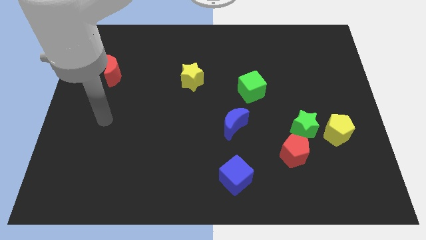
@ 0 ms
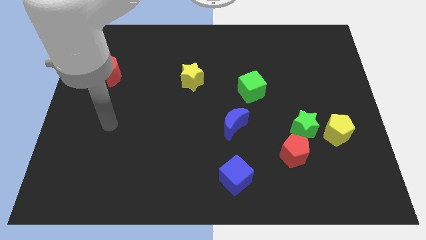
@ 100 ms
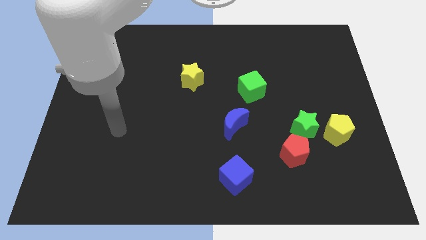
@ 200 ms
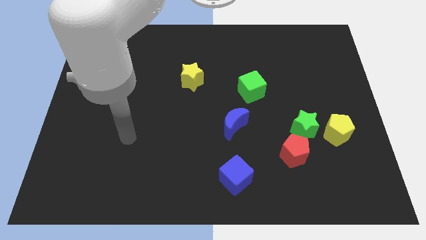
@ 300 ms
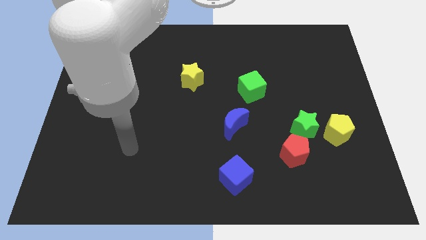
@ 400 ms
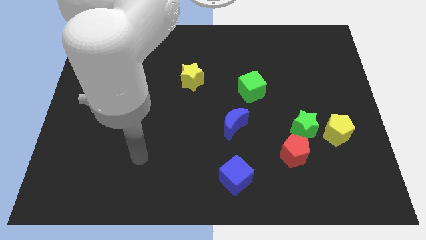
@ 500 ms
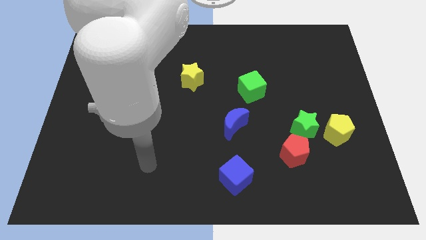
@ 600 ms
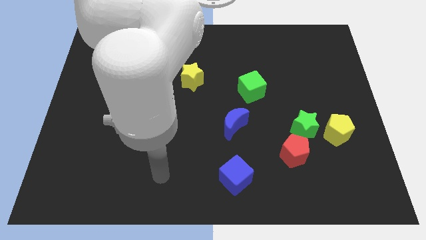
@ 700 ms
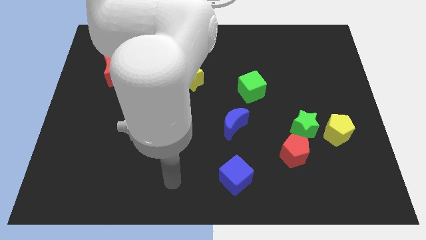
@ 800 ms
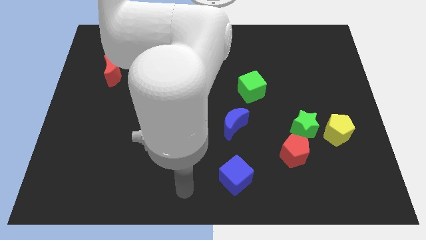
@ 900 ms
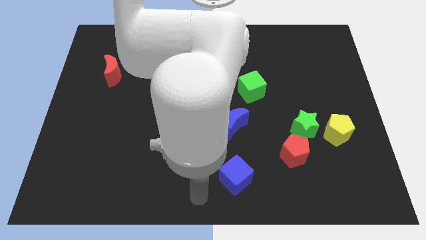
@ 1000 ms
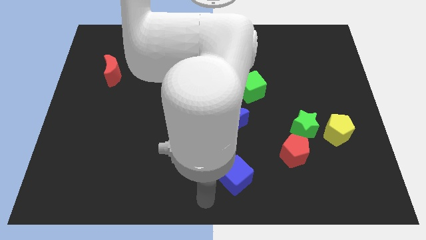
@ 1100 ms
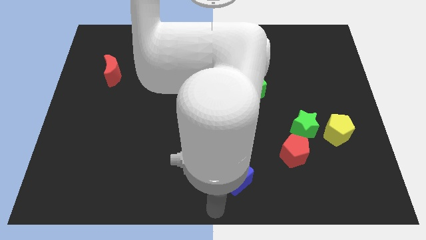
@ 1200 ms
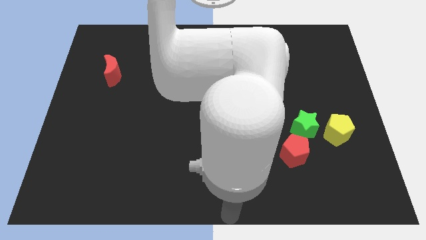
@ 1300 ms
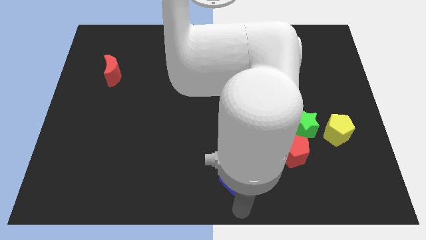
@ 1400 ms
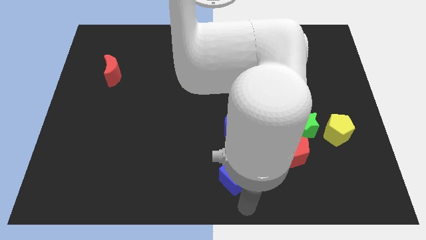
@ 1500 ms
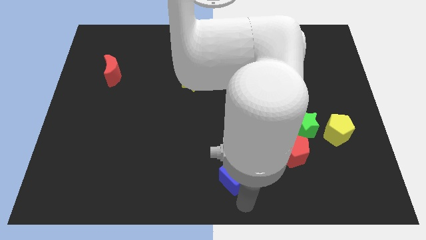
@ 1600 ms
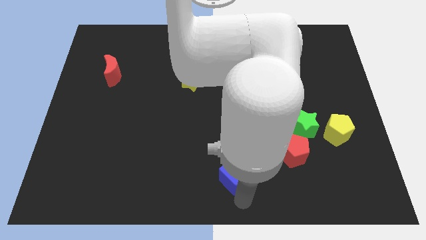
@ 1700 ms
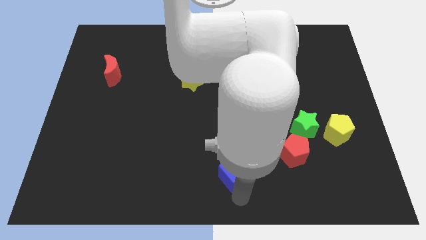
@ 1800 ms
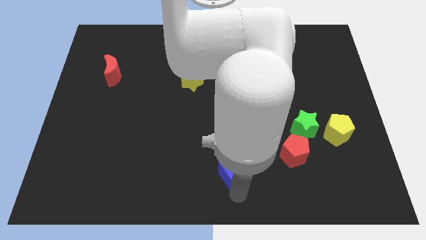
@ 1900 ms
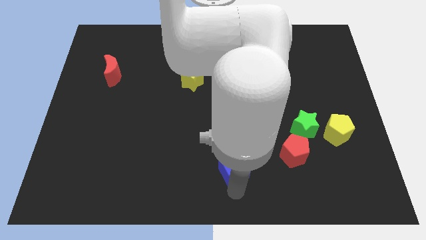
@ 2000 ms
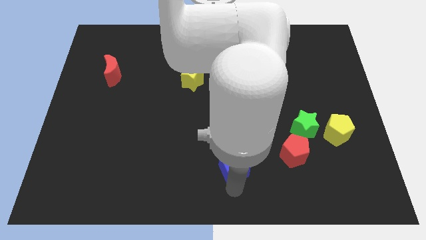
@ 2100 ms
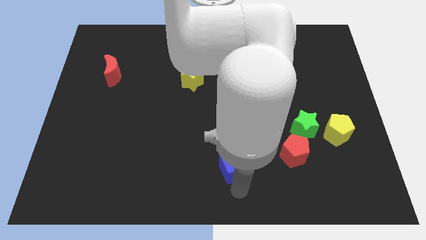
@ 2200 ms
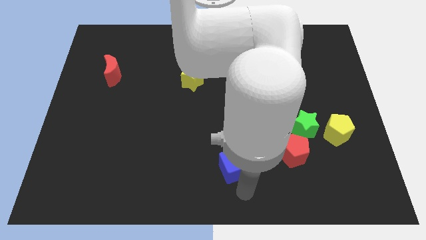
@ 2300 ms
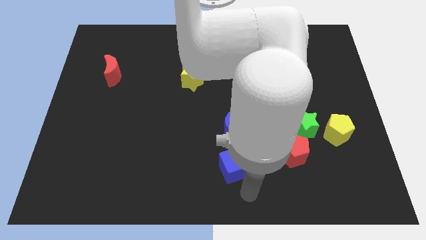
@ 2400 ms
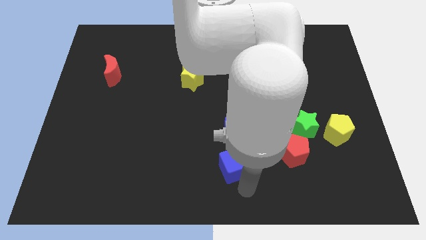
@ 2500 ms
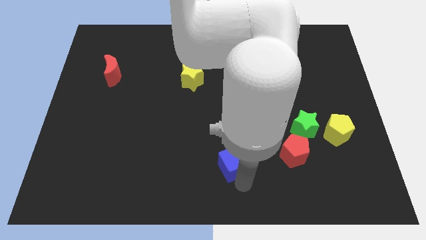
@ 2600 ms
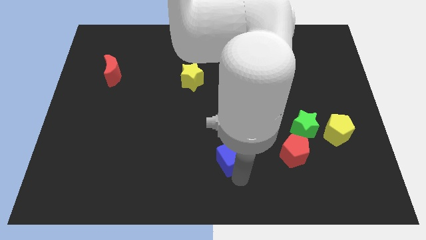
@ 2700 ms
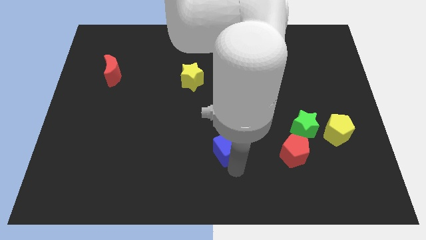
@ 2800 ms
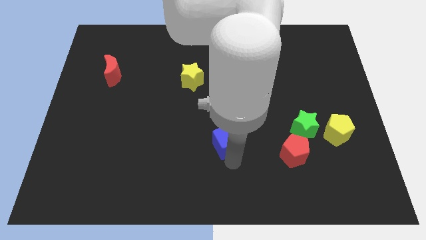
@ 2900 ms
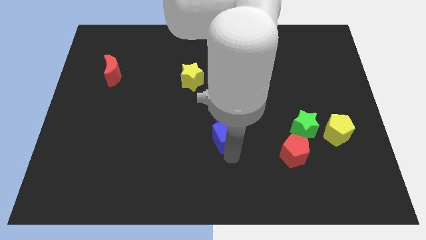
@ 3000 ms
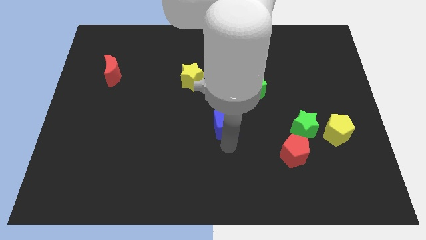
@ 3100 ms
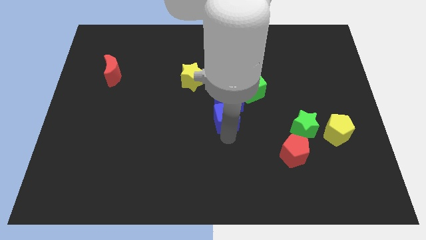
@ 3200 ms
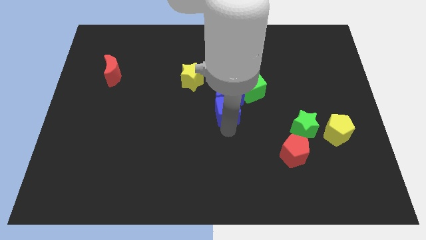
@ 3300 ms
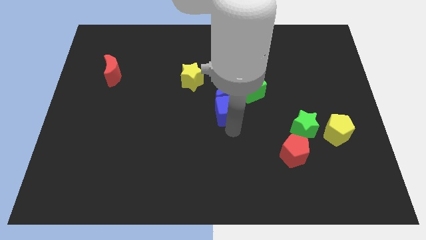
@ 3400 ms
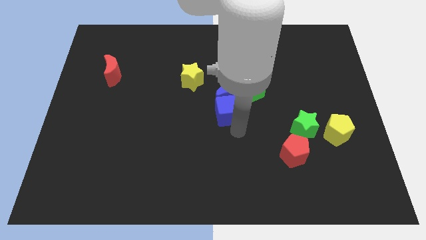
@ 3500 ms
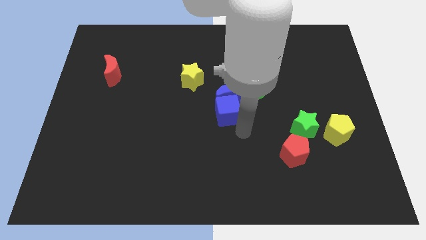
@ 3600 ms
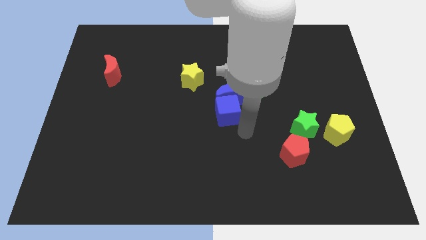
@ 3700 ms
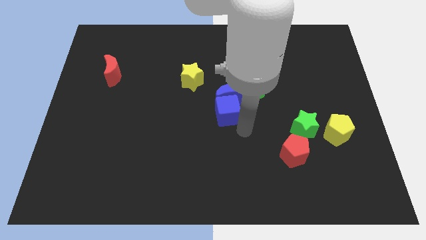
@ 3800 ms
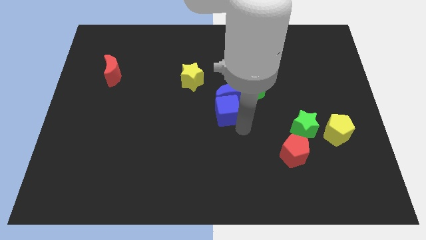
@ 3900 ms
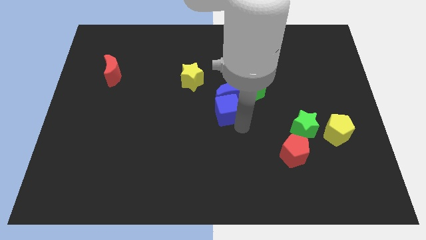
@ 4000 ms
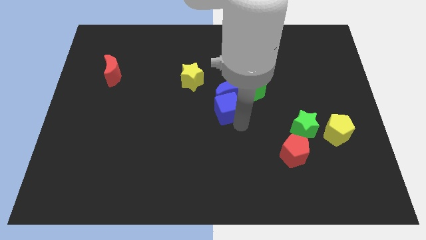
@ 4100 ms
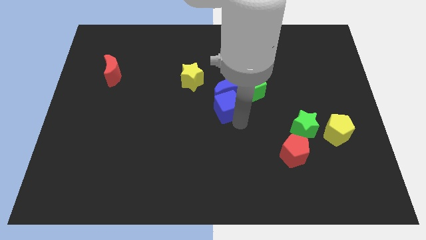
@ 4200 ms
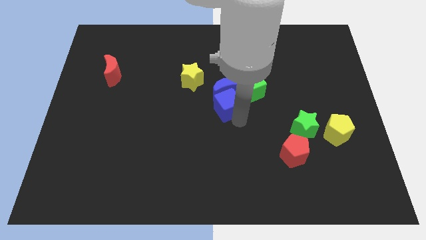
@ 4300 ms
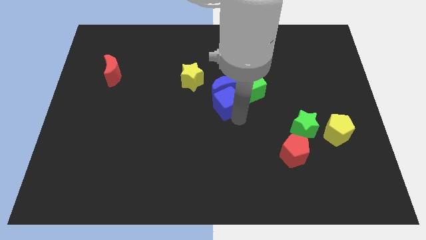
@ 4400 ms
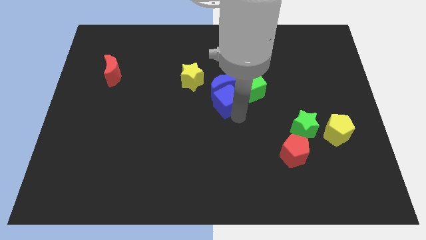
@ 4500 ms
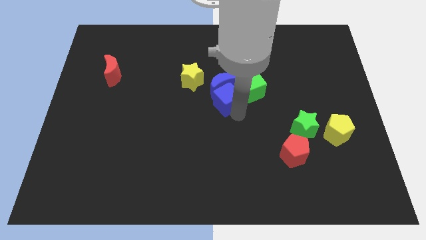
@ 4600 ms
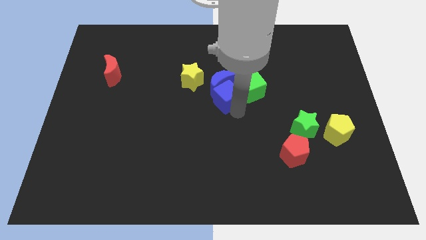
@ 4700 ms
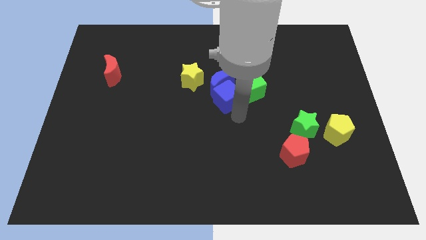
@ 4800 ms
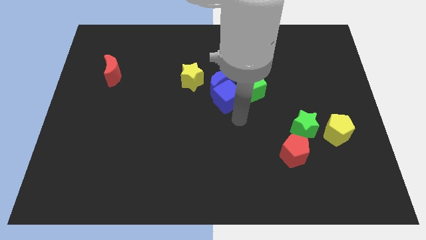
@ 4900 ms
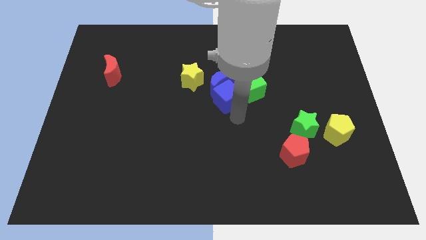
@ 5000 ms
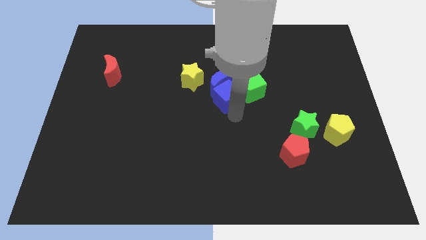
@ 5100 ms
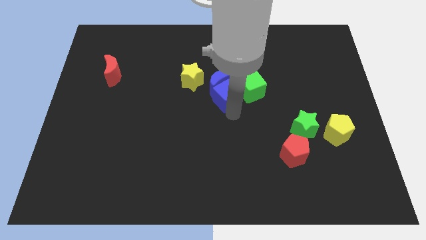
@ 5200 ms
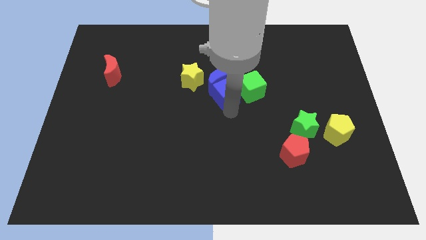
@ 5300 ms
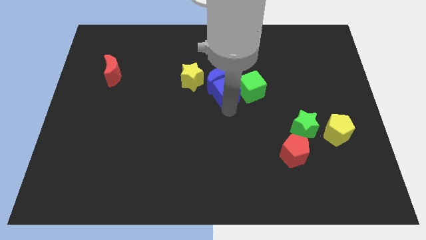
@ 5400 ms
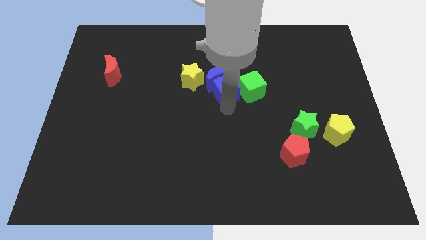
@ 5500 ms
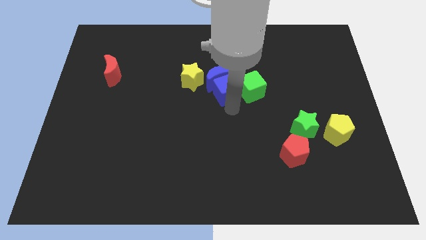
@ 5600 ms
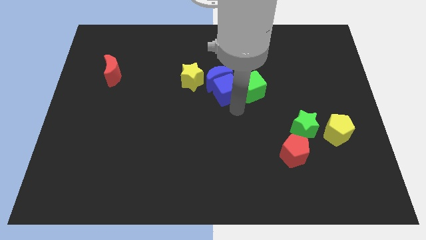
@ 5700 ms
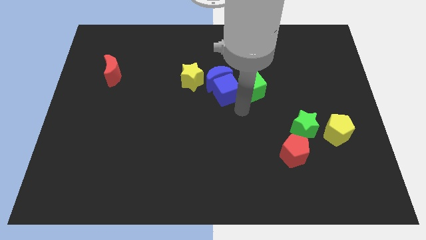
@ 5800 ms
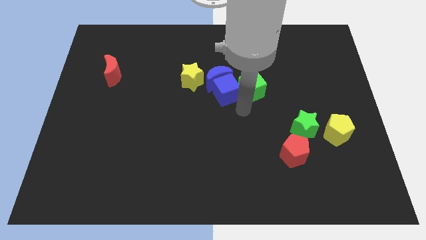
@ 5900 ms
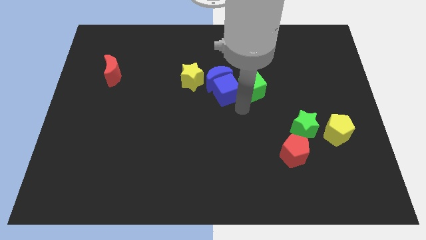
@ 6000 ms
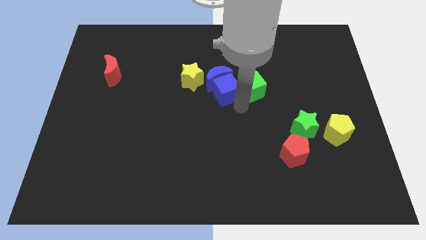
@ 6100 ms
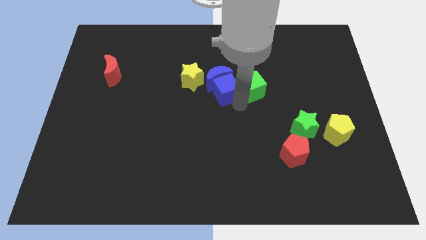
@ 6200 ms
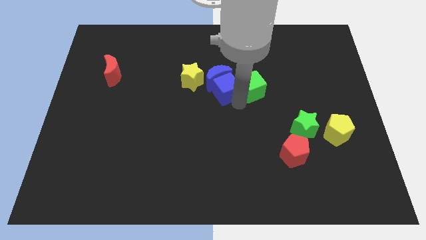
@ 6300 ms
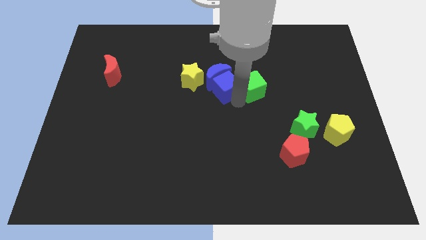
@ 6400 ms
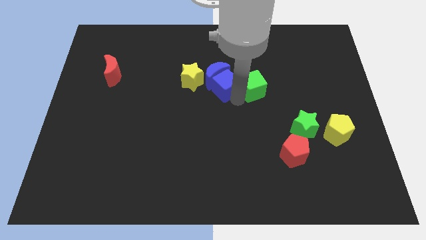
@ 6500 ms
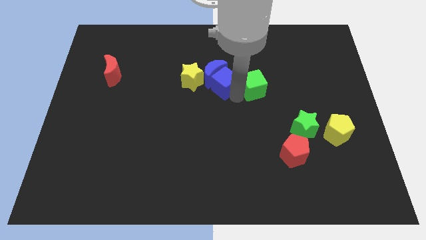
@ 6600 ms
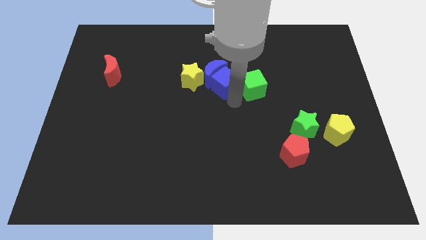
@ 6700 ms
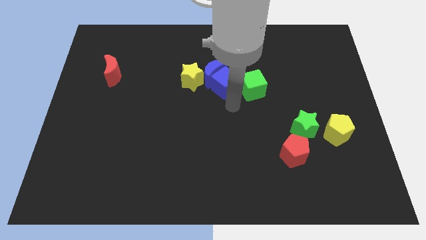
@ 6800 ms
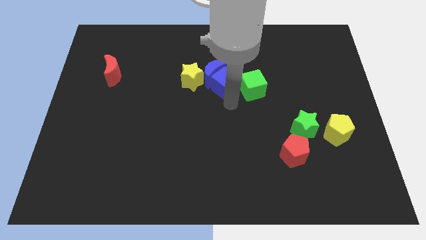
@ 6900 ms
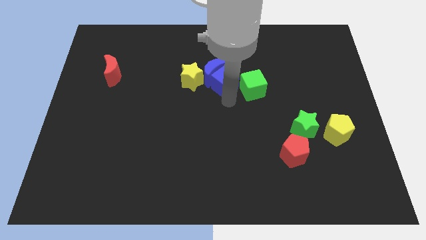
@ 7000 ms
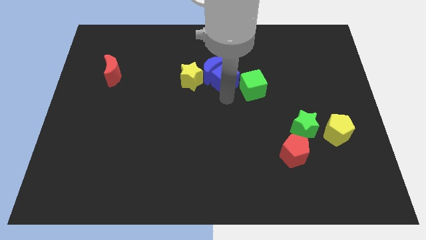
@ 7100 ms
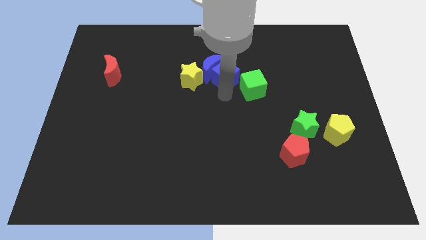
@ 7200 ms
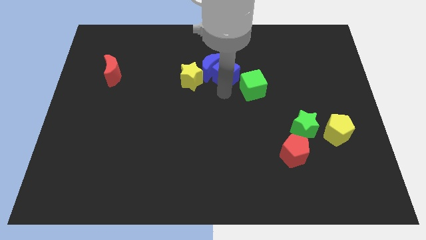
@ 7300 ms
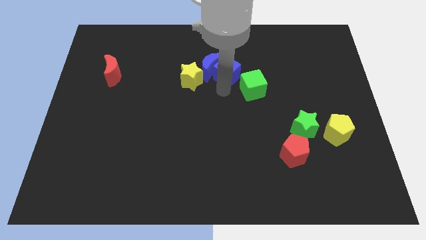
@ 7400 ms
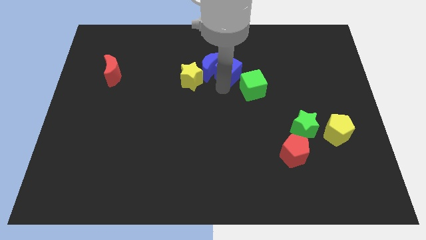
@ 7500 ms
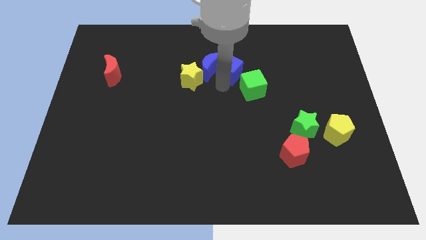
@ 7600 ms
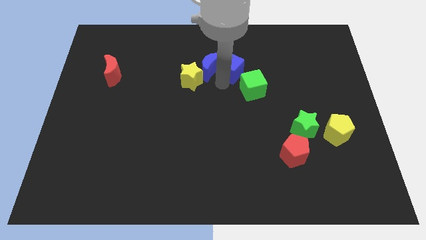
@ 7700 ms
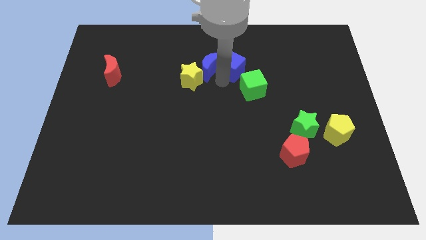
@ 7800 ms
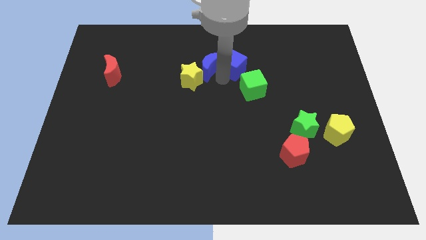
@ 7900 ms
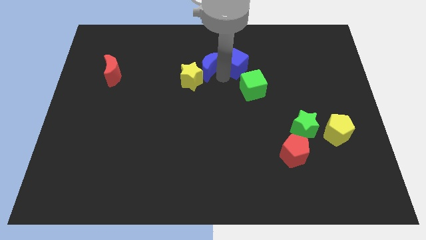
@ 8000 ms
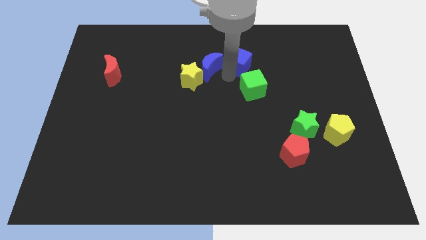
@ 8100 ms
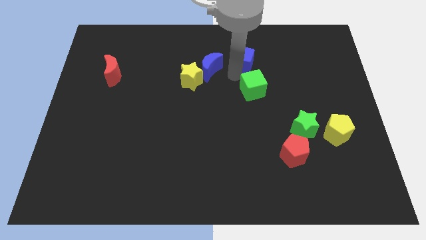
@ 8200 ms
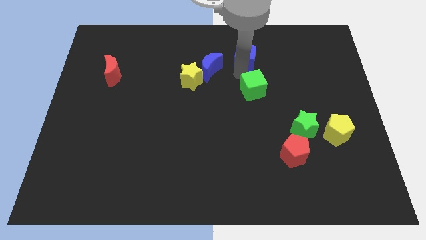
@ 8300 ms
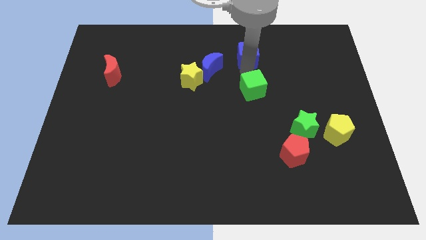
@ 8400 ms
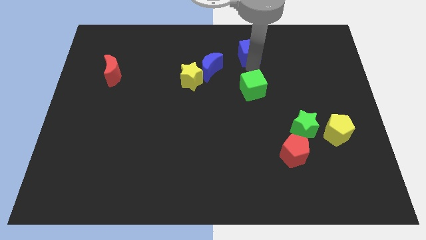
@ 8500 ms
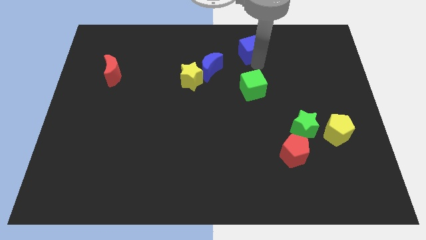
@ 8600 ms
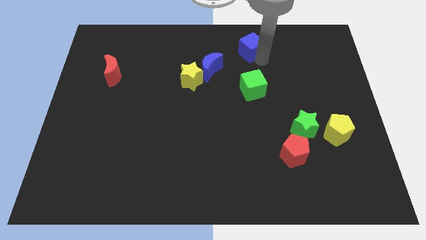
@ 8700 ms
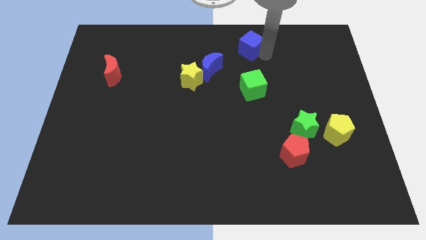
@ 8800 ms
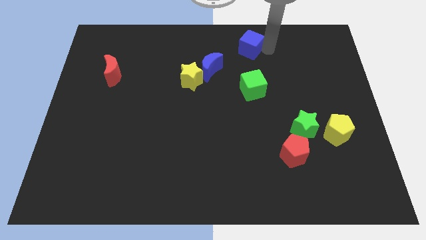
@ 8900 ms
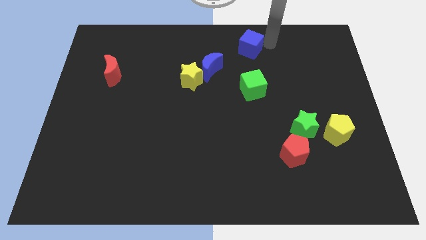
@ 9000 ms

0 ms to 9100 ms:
move the blue cube to the top
